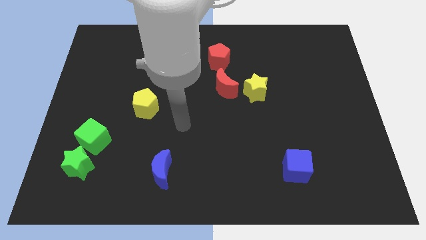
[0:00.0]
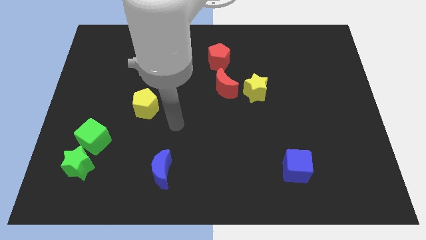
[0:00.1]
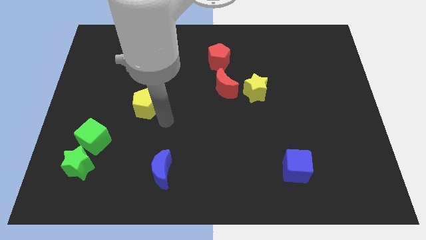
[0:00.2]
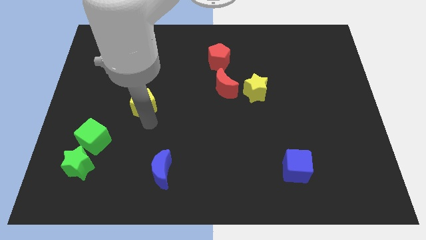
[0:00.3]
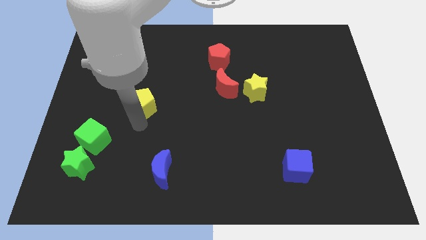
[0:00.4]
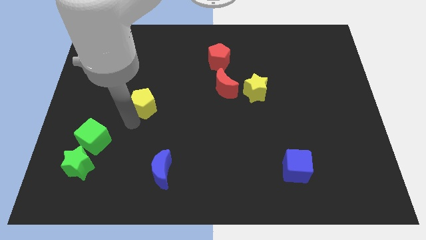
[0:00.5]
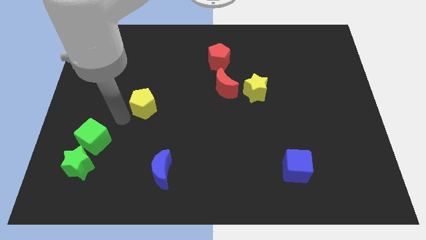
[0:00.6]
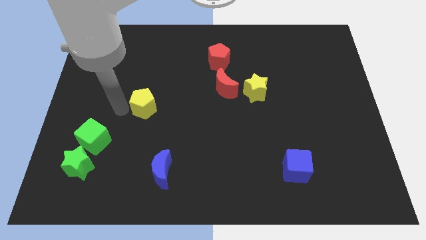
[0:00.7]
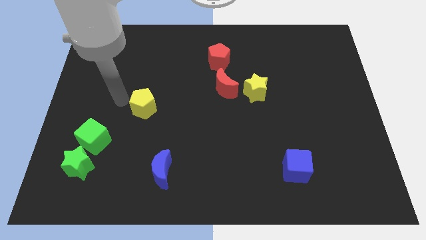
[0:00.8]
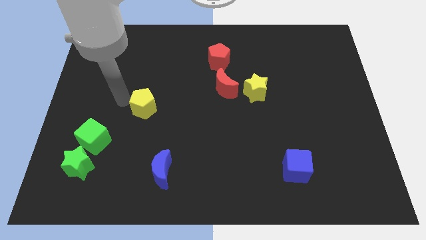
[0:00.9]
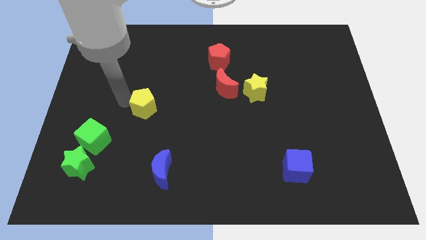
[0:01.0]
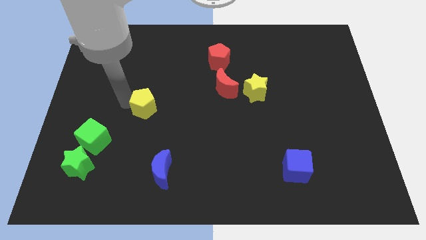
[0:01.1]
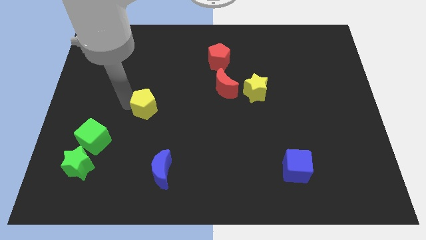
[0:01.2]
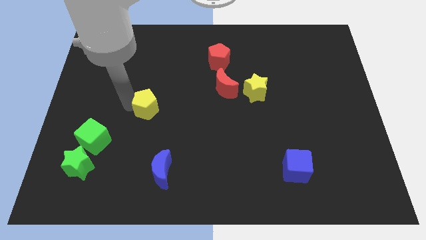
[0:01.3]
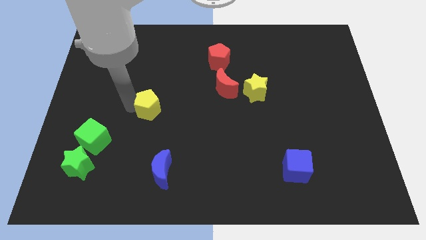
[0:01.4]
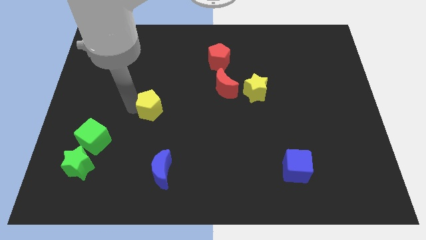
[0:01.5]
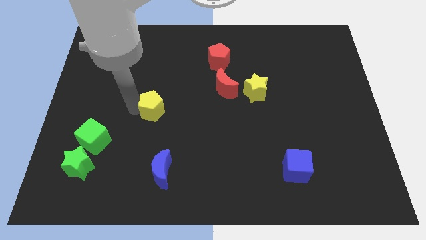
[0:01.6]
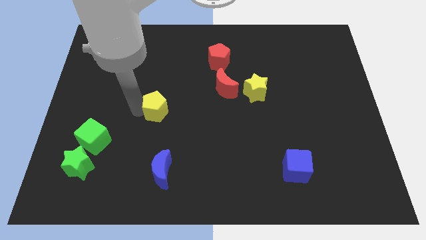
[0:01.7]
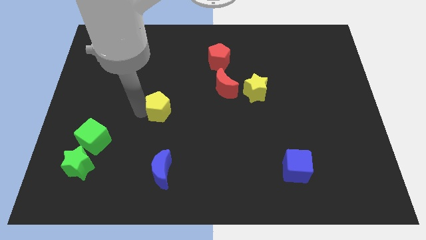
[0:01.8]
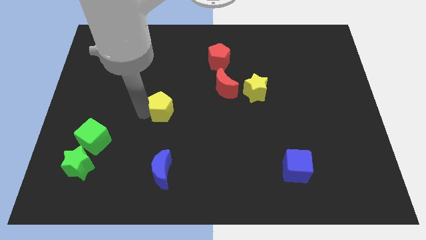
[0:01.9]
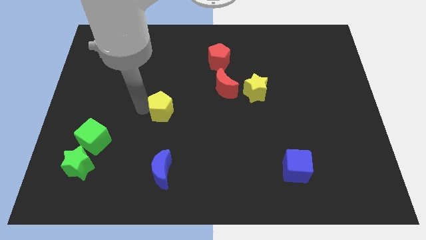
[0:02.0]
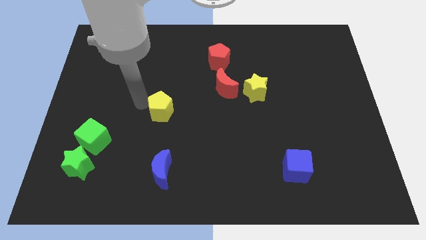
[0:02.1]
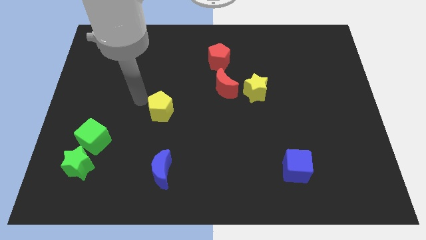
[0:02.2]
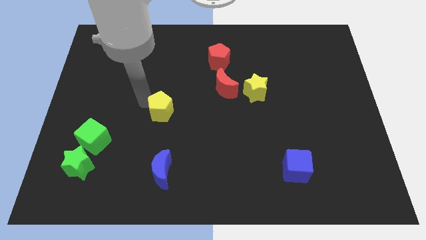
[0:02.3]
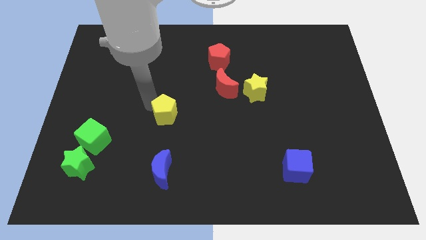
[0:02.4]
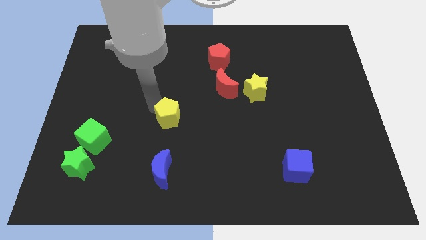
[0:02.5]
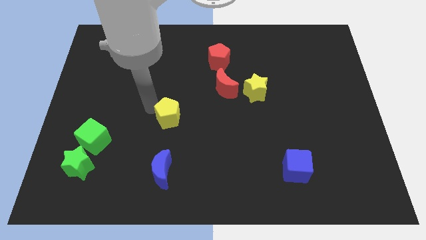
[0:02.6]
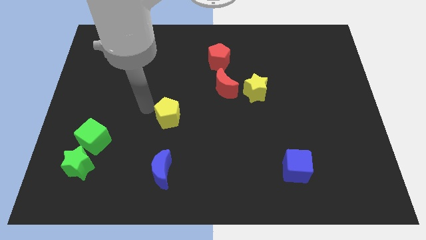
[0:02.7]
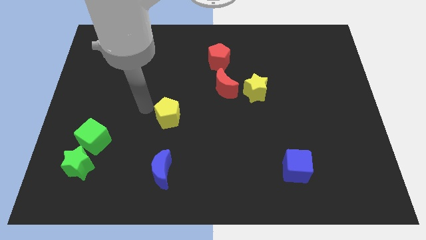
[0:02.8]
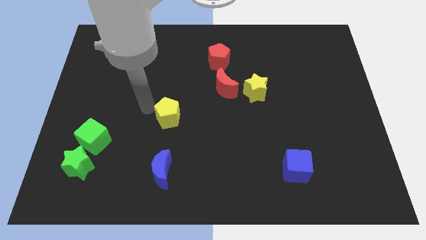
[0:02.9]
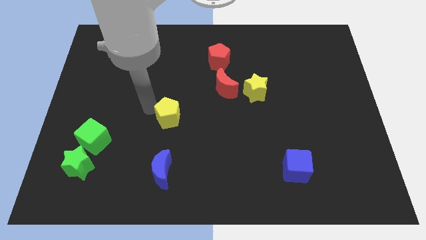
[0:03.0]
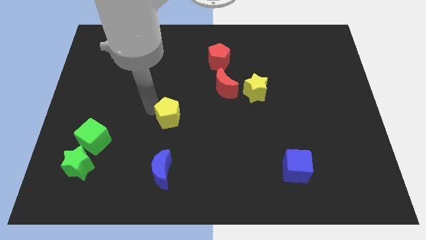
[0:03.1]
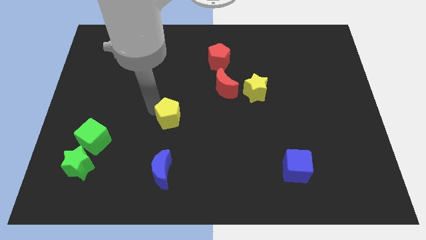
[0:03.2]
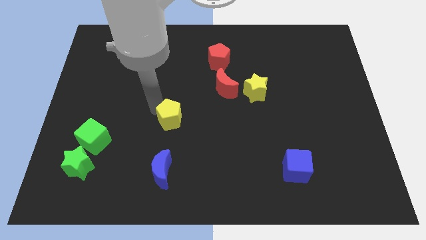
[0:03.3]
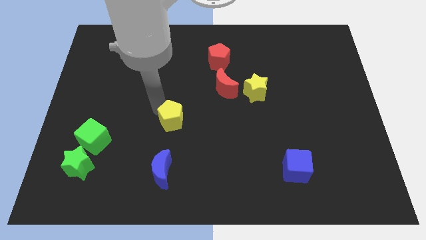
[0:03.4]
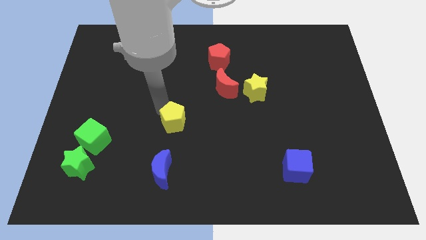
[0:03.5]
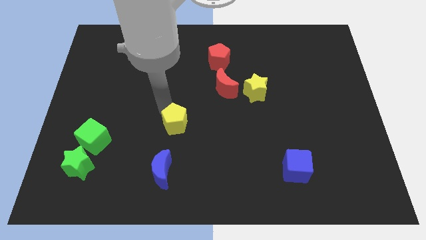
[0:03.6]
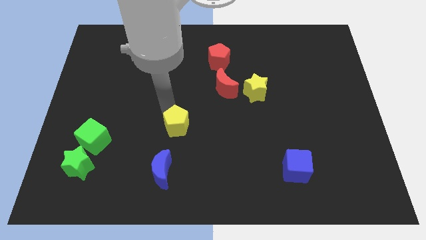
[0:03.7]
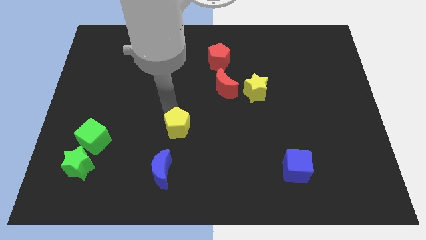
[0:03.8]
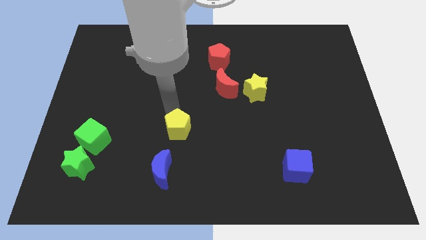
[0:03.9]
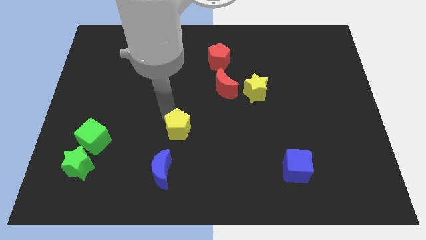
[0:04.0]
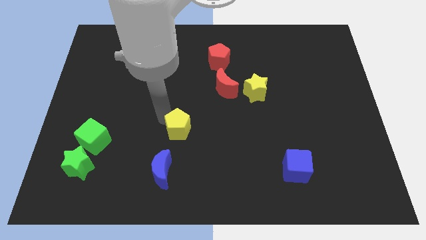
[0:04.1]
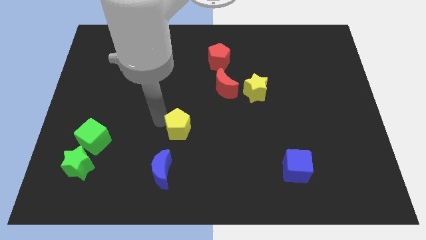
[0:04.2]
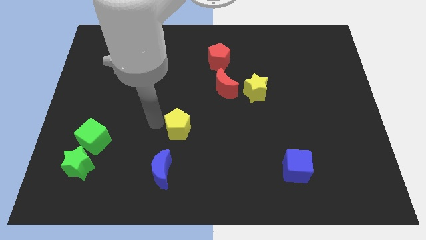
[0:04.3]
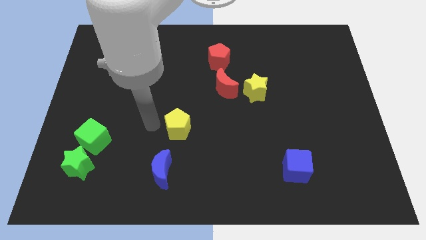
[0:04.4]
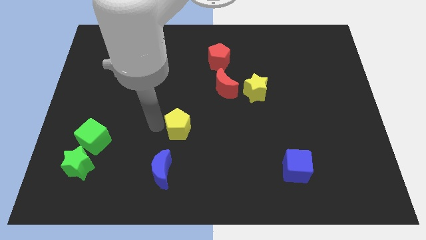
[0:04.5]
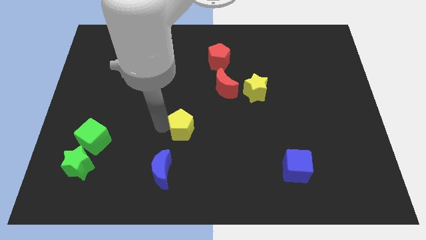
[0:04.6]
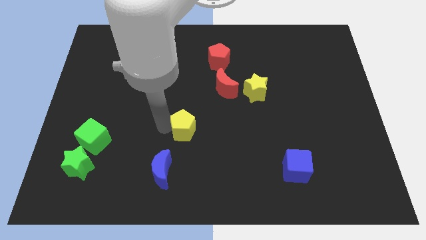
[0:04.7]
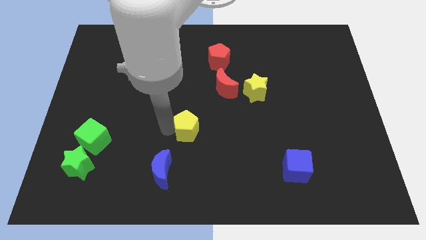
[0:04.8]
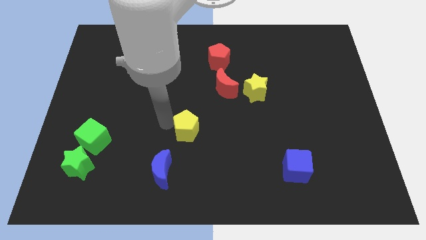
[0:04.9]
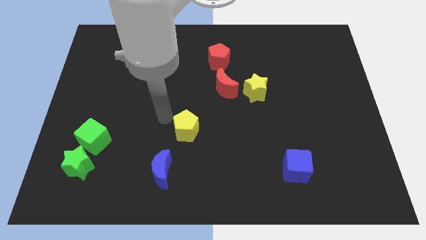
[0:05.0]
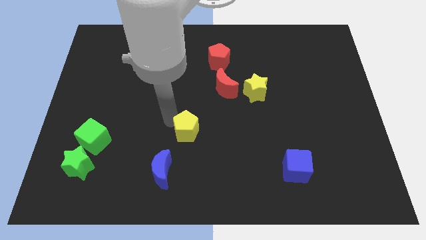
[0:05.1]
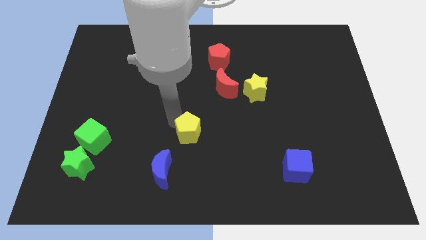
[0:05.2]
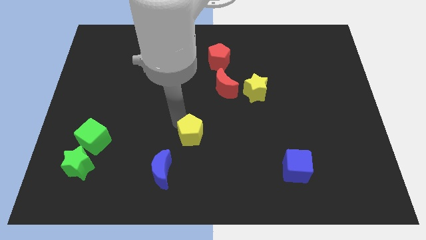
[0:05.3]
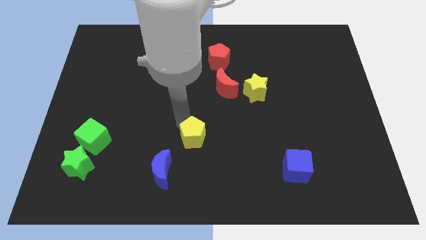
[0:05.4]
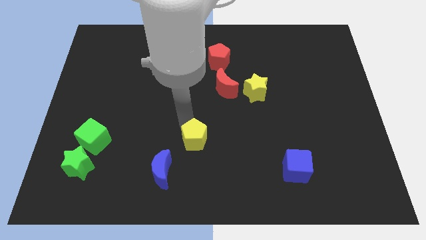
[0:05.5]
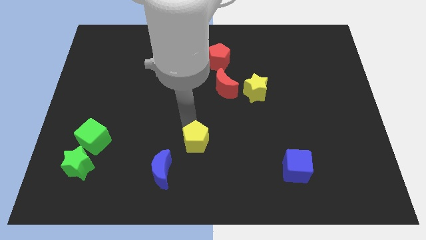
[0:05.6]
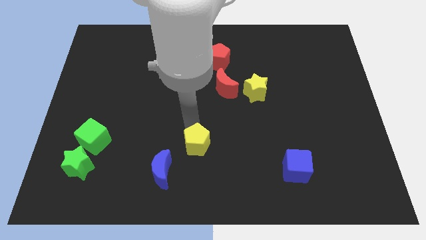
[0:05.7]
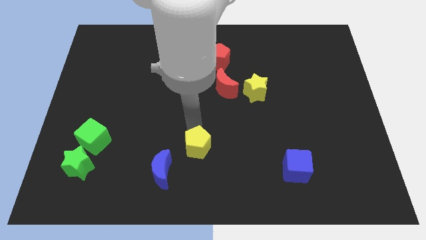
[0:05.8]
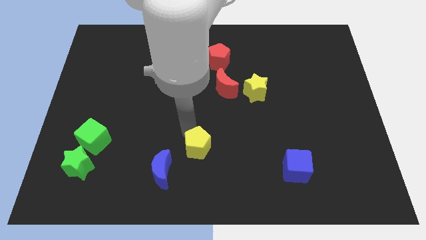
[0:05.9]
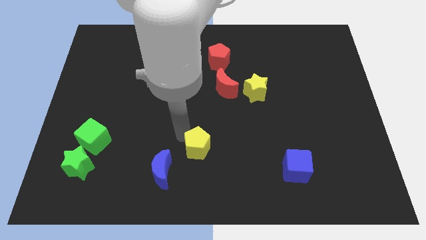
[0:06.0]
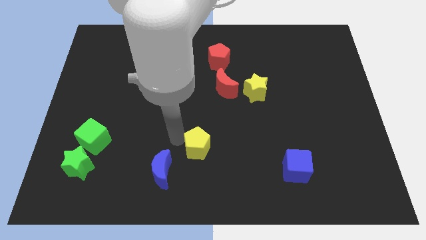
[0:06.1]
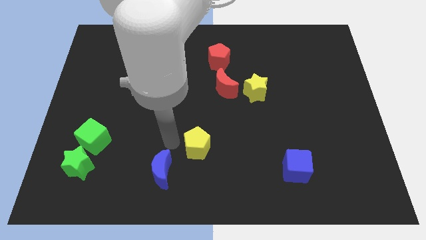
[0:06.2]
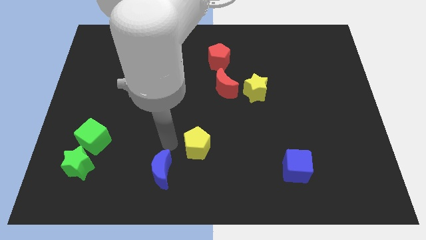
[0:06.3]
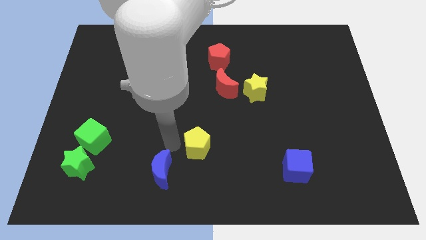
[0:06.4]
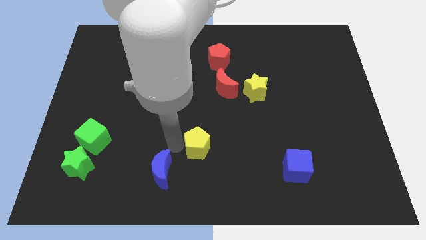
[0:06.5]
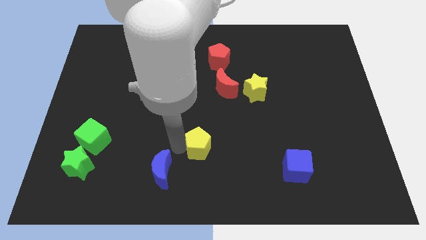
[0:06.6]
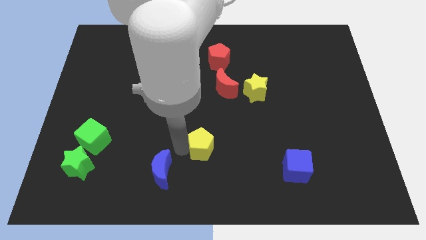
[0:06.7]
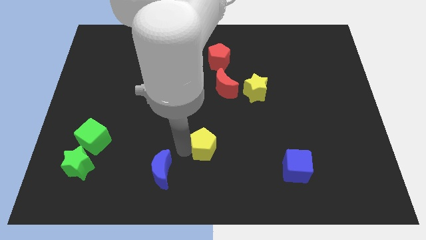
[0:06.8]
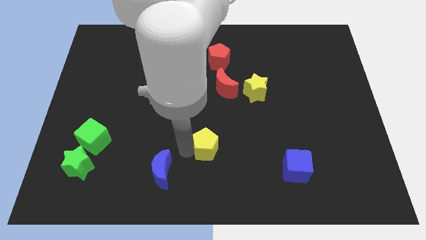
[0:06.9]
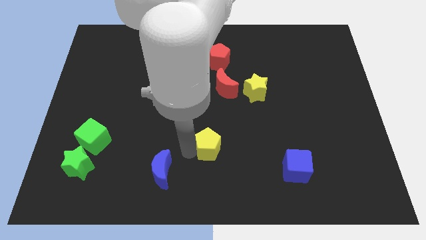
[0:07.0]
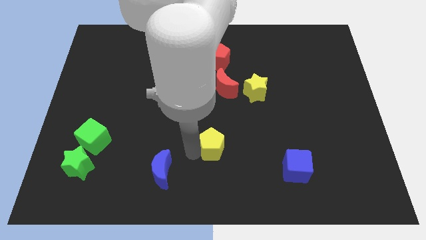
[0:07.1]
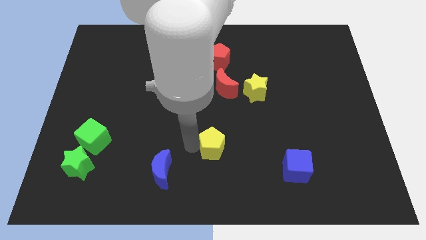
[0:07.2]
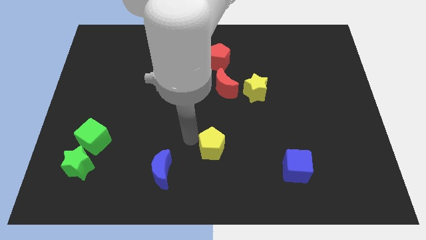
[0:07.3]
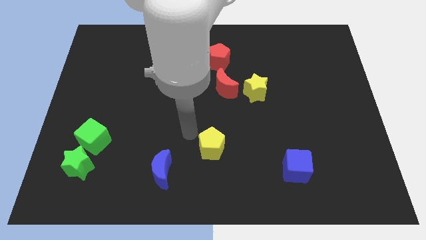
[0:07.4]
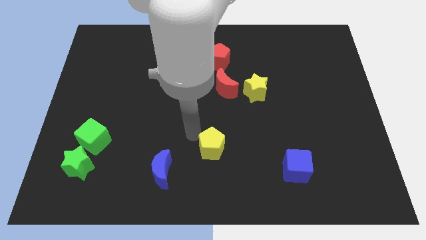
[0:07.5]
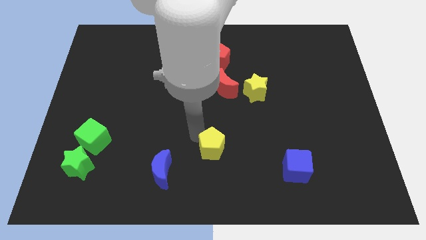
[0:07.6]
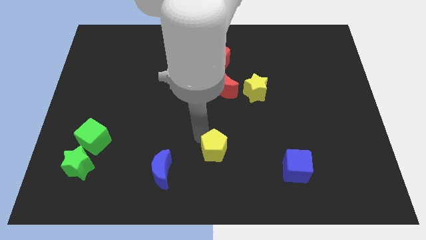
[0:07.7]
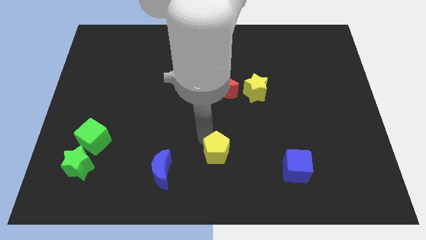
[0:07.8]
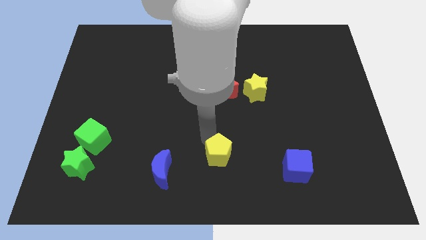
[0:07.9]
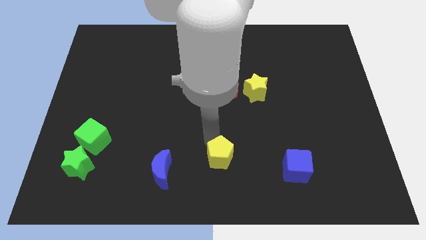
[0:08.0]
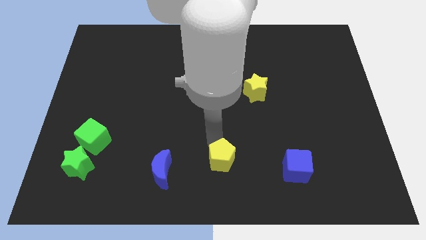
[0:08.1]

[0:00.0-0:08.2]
move the yellow pentagon to the left side of the blue cube
